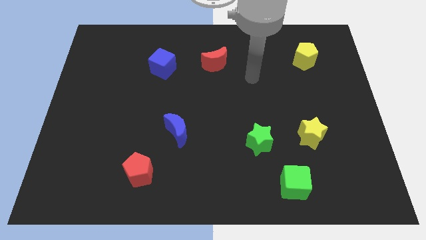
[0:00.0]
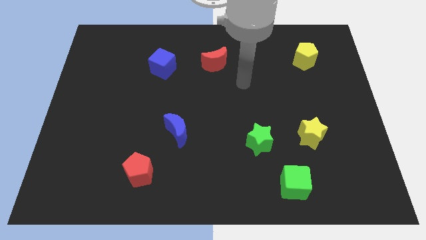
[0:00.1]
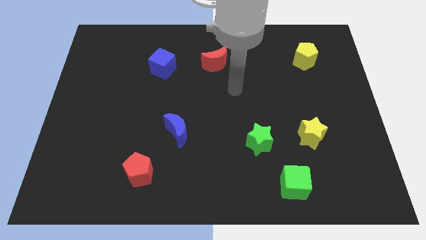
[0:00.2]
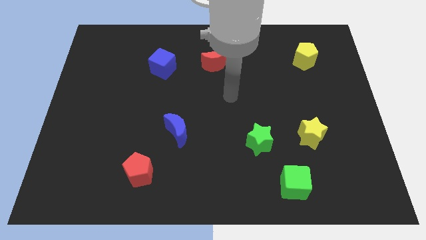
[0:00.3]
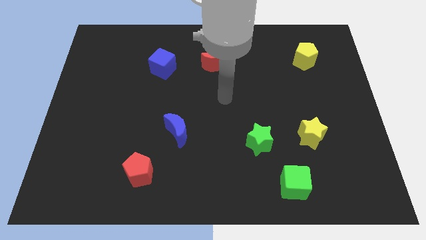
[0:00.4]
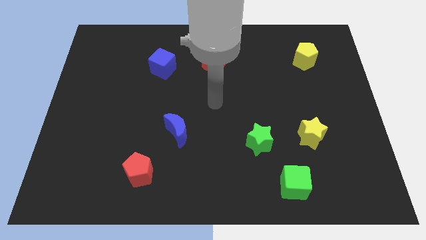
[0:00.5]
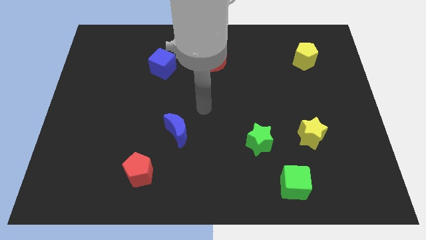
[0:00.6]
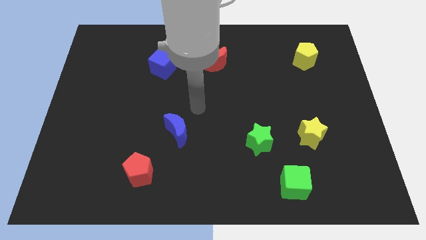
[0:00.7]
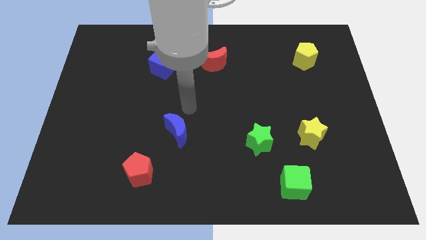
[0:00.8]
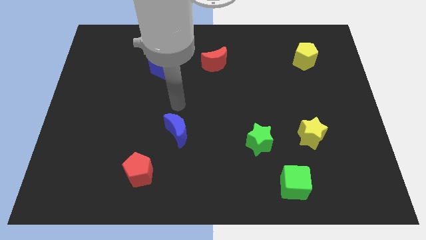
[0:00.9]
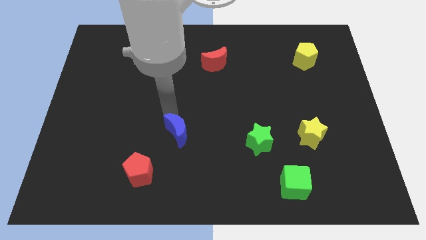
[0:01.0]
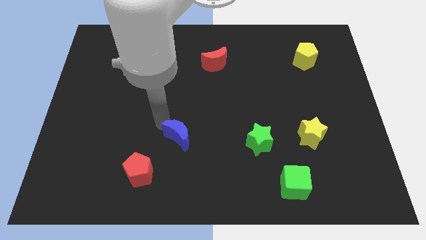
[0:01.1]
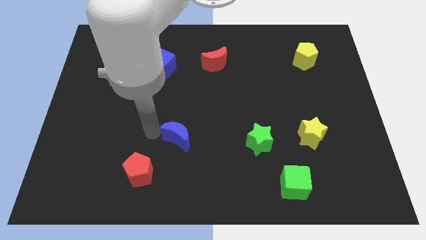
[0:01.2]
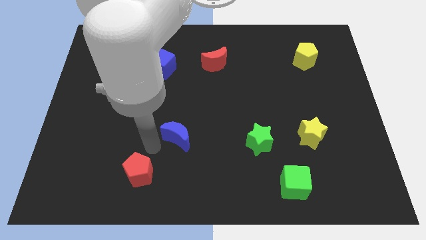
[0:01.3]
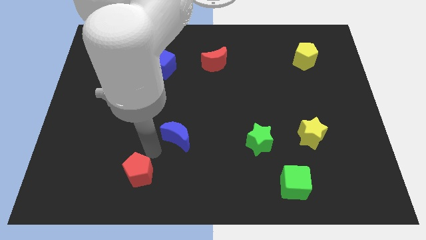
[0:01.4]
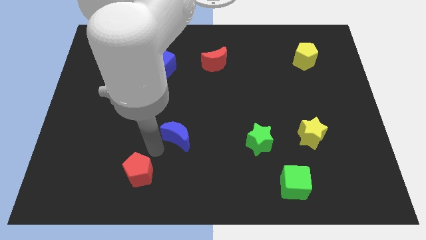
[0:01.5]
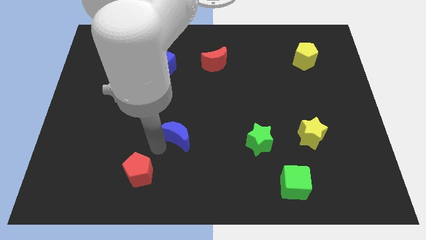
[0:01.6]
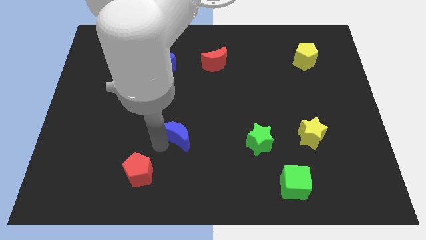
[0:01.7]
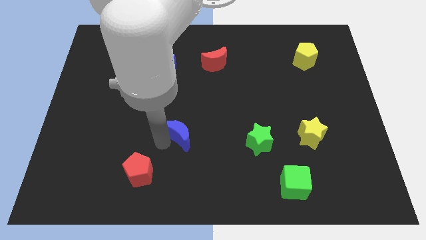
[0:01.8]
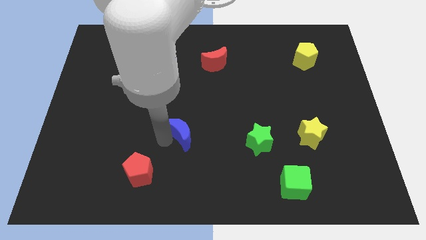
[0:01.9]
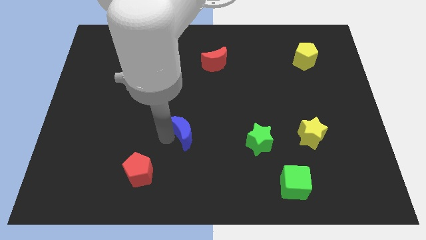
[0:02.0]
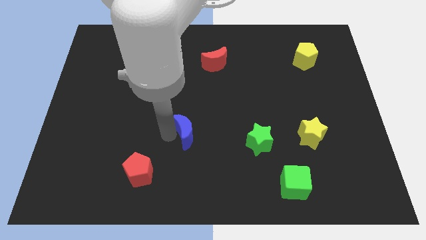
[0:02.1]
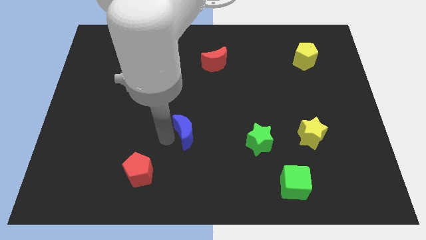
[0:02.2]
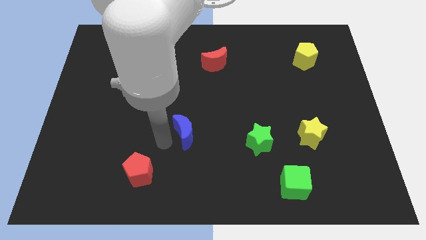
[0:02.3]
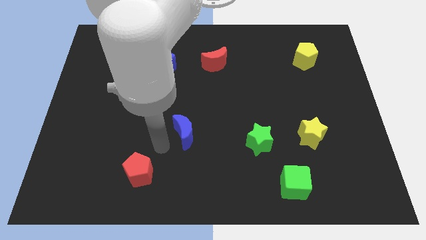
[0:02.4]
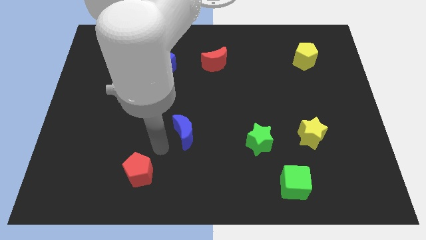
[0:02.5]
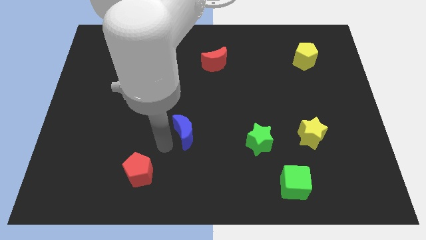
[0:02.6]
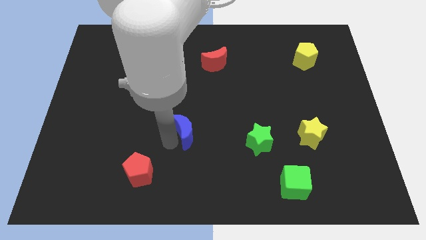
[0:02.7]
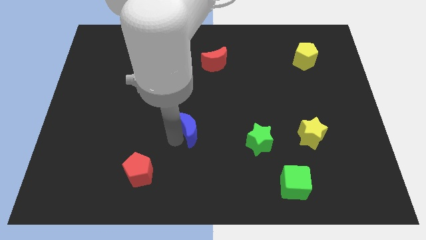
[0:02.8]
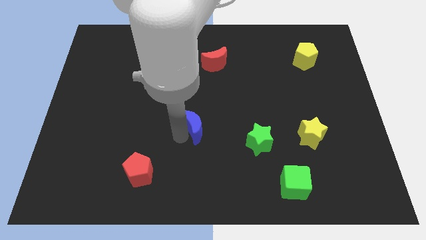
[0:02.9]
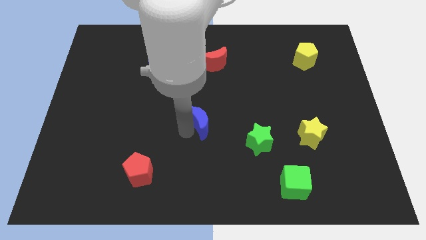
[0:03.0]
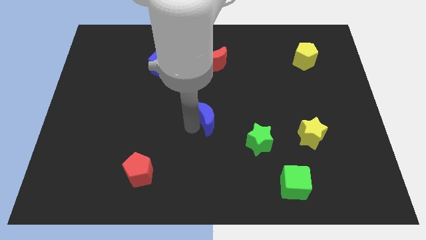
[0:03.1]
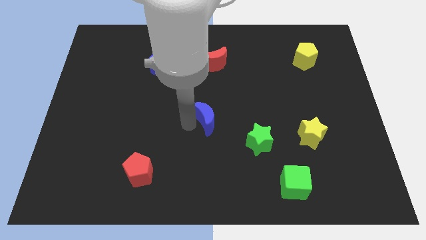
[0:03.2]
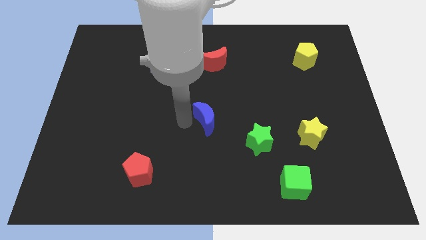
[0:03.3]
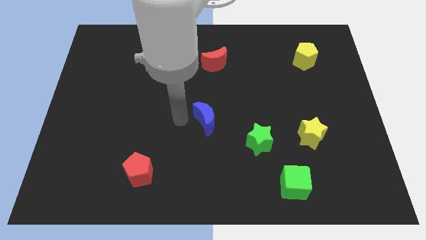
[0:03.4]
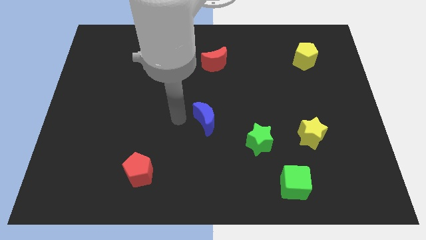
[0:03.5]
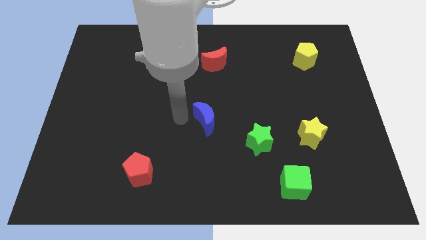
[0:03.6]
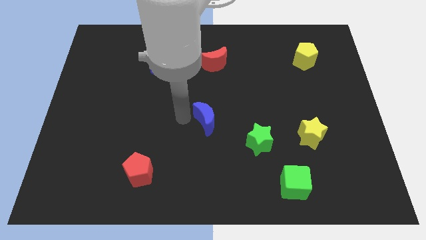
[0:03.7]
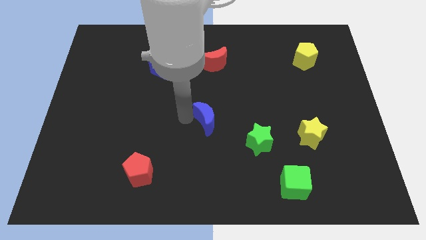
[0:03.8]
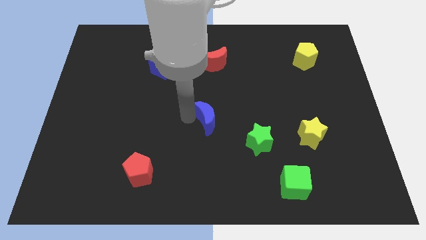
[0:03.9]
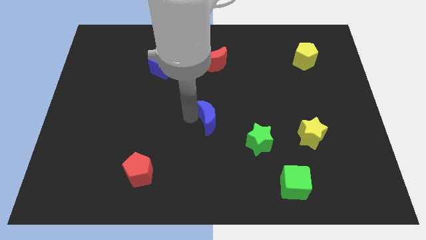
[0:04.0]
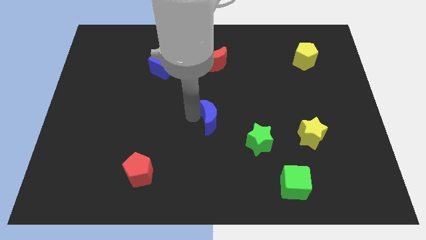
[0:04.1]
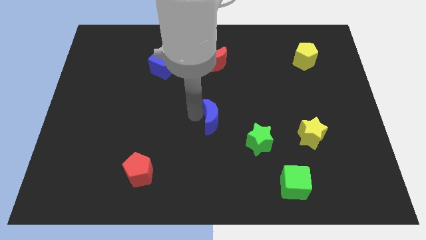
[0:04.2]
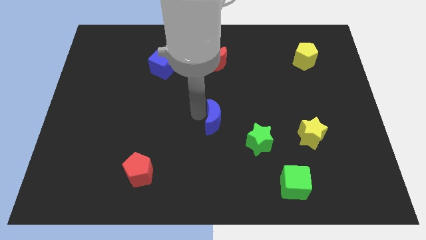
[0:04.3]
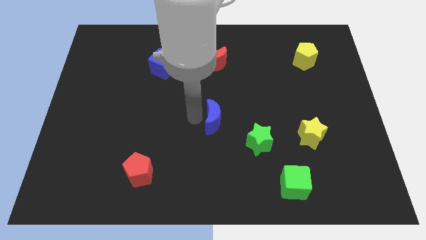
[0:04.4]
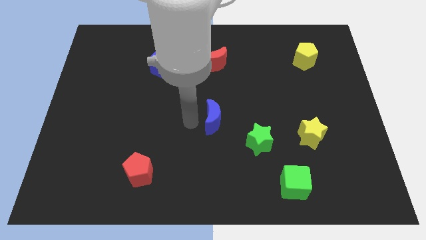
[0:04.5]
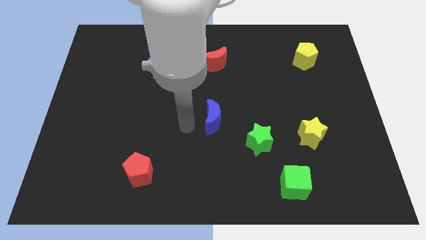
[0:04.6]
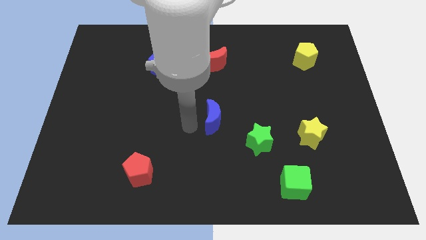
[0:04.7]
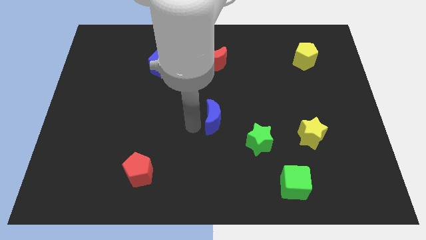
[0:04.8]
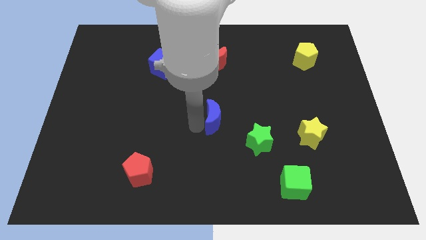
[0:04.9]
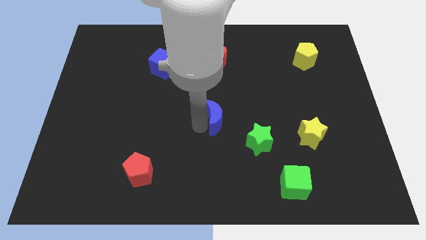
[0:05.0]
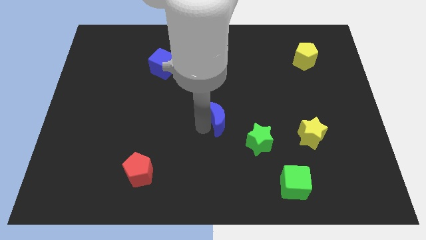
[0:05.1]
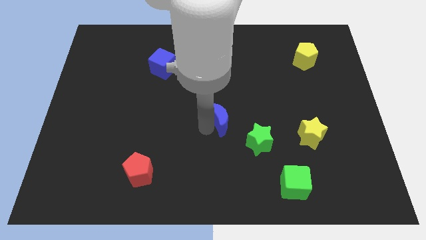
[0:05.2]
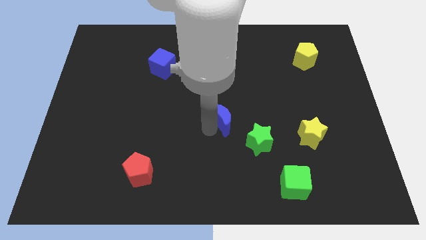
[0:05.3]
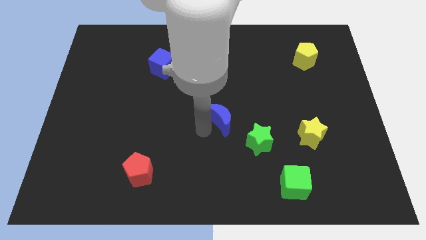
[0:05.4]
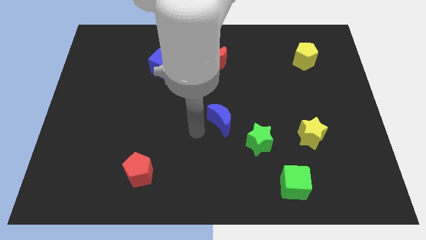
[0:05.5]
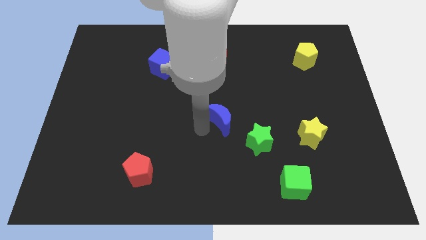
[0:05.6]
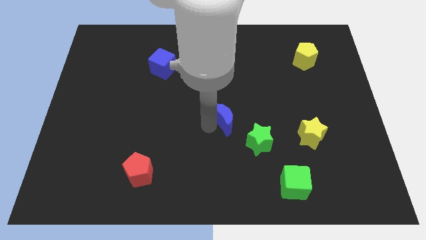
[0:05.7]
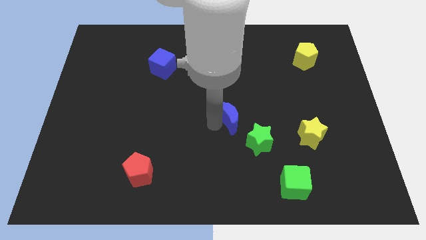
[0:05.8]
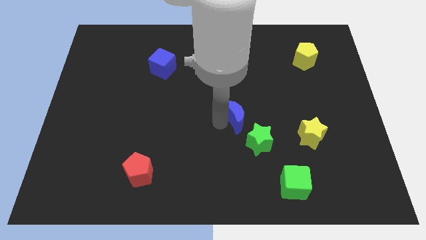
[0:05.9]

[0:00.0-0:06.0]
push the blue moon to the top of the green star

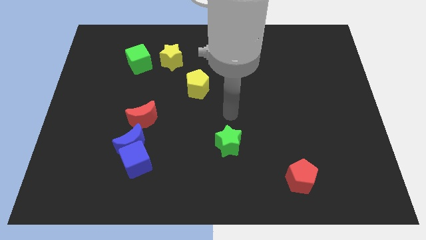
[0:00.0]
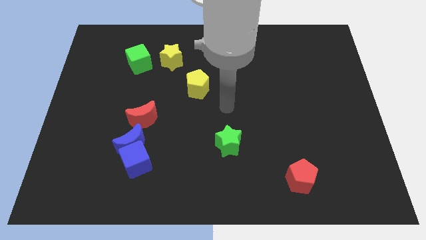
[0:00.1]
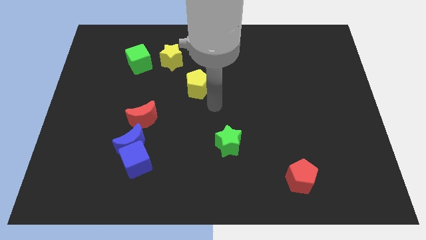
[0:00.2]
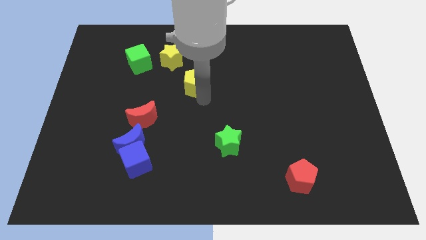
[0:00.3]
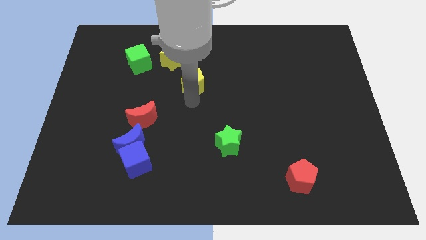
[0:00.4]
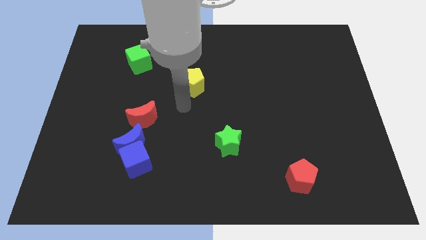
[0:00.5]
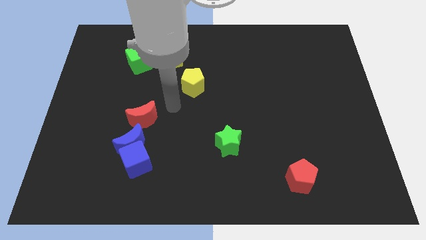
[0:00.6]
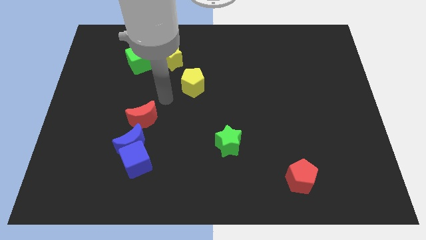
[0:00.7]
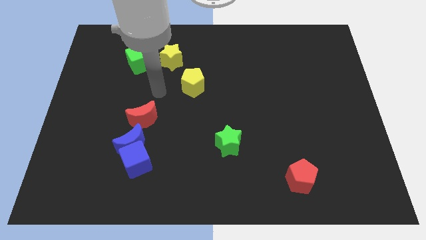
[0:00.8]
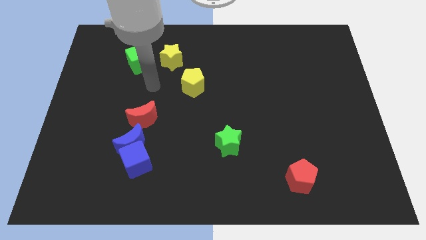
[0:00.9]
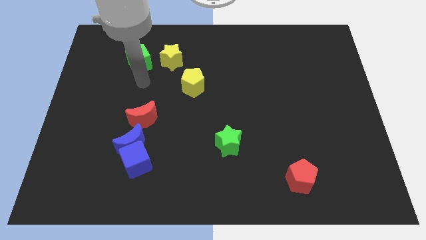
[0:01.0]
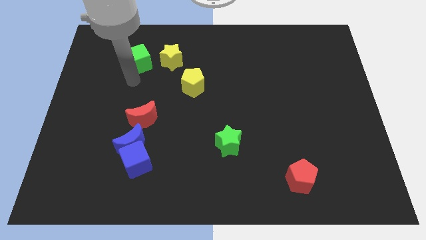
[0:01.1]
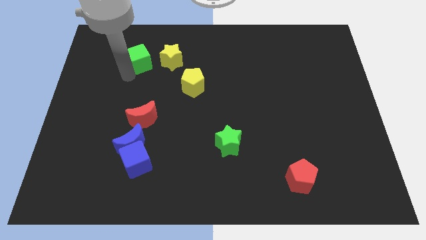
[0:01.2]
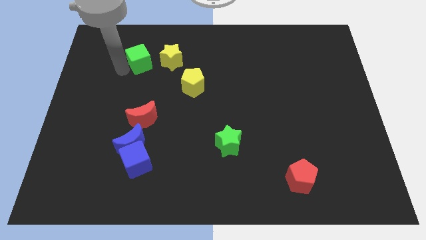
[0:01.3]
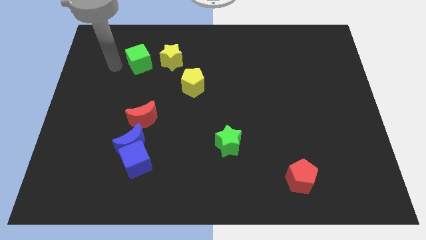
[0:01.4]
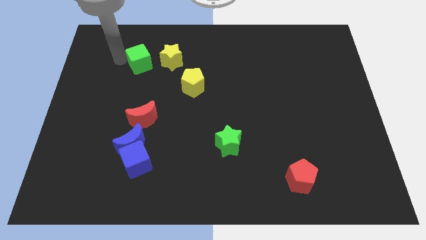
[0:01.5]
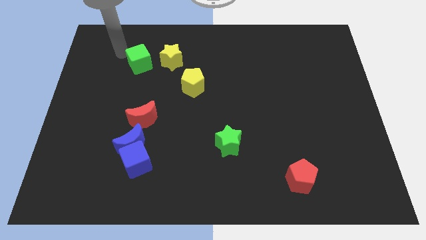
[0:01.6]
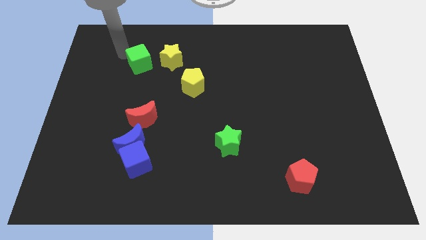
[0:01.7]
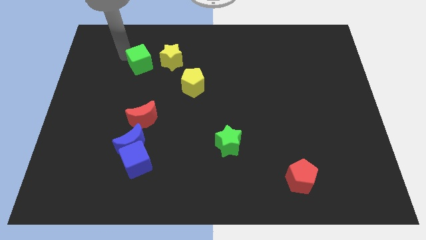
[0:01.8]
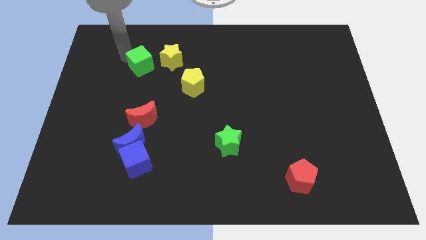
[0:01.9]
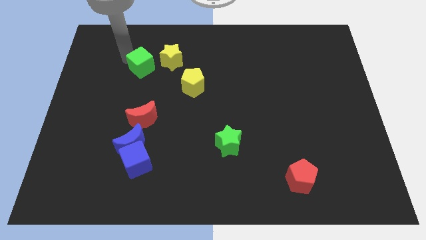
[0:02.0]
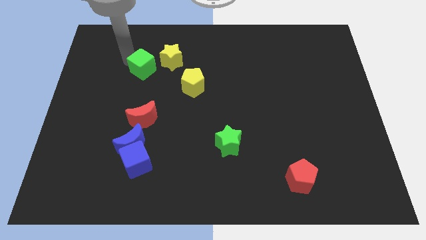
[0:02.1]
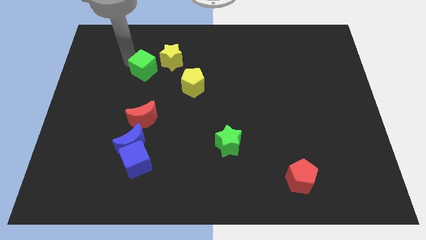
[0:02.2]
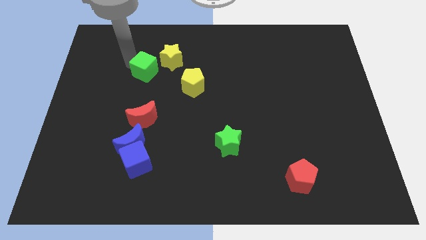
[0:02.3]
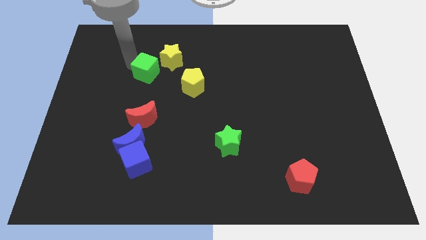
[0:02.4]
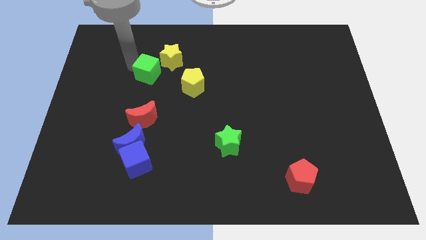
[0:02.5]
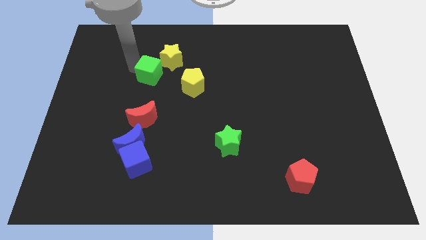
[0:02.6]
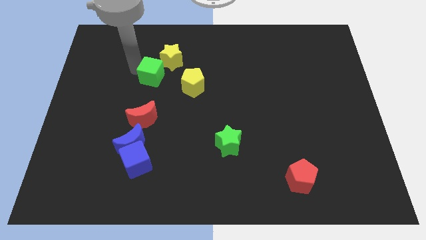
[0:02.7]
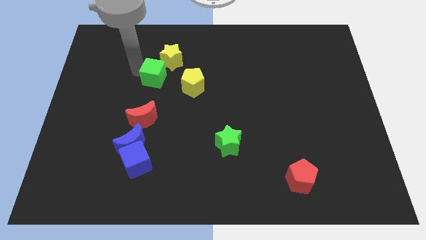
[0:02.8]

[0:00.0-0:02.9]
slide the green cube to the top left side of the yellow pentagon
